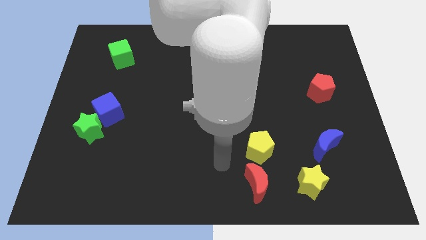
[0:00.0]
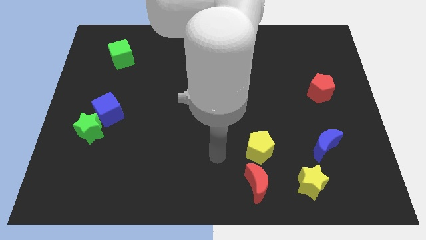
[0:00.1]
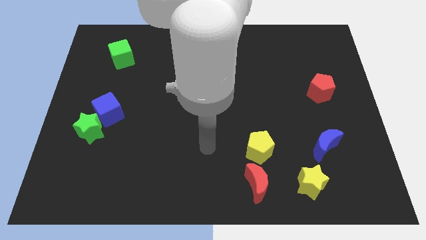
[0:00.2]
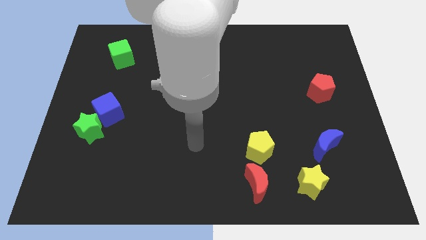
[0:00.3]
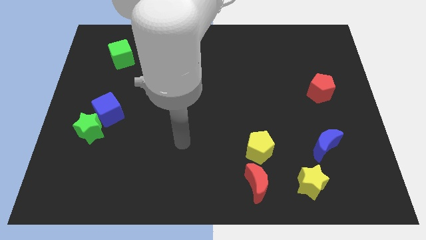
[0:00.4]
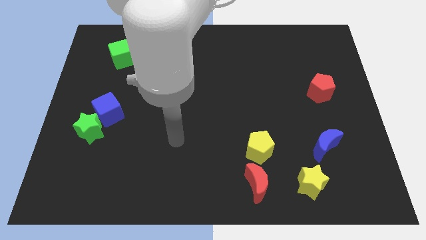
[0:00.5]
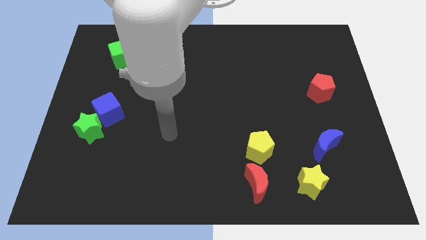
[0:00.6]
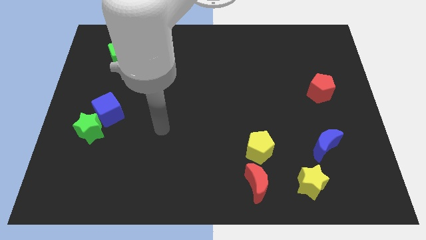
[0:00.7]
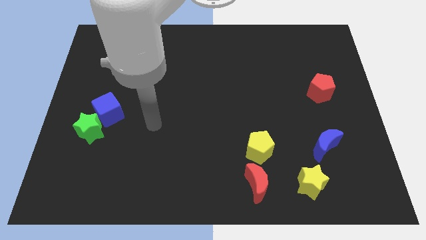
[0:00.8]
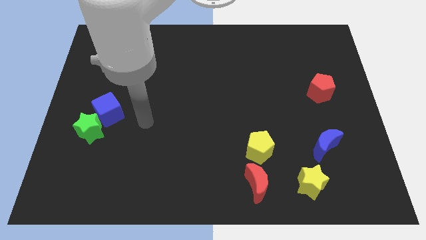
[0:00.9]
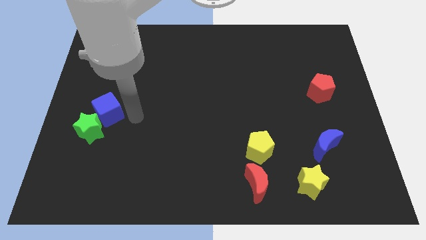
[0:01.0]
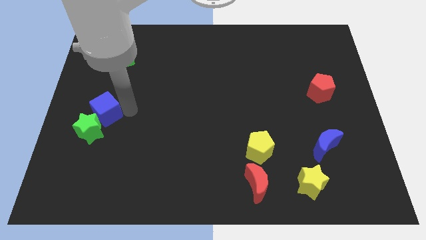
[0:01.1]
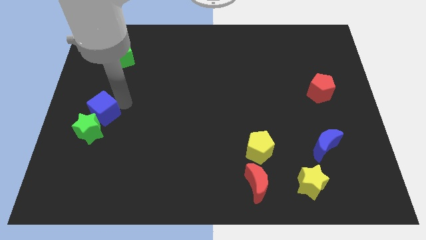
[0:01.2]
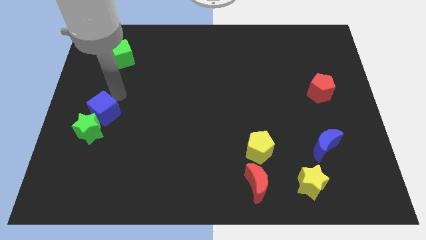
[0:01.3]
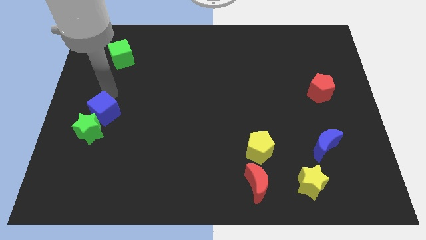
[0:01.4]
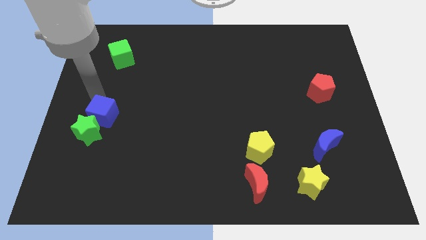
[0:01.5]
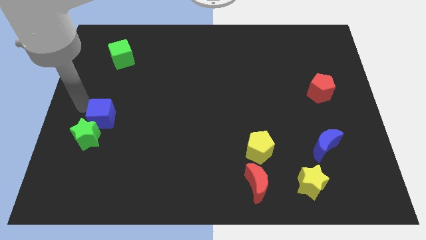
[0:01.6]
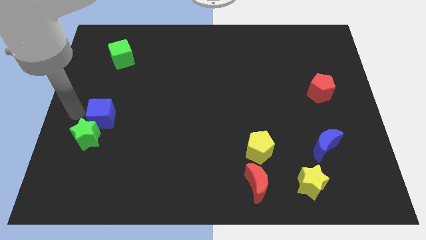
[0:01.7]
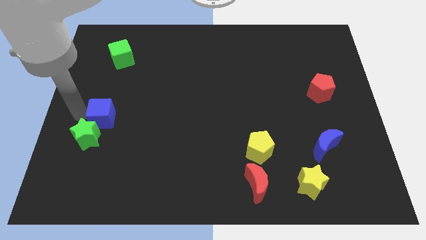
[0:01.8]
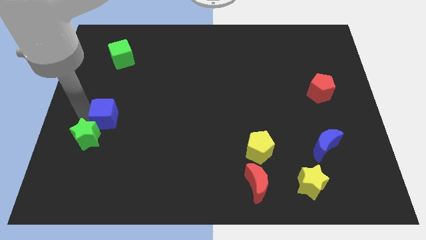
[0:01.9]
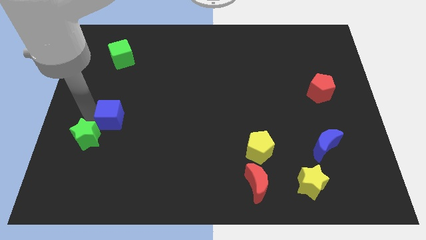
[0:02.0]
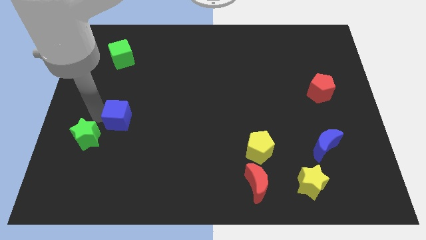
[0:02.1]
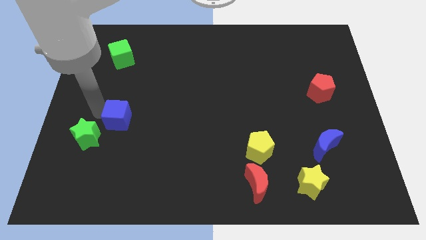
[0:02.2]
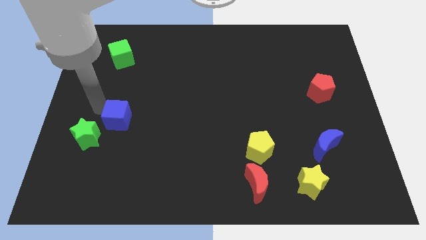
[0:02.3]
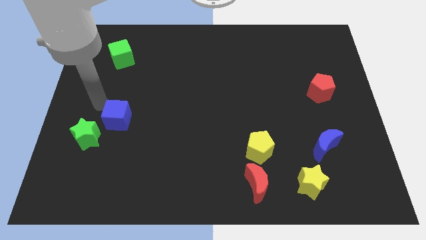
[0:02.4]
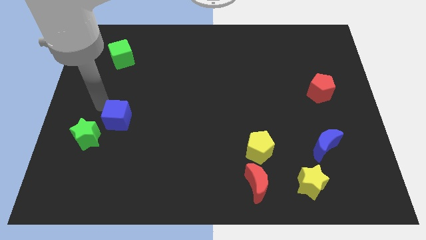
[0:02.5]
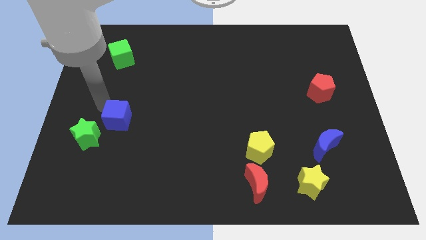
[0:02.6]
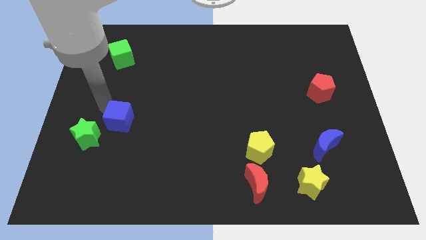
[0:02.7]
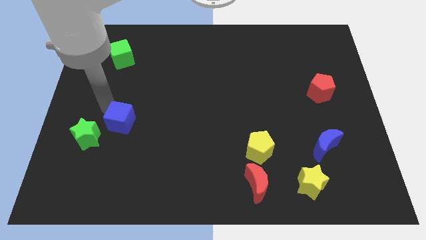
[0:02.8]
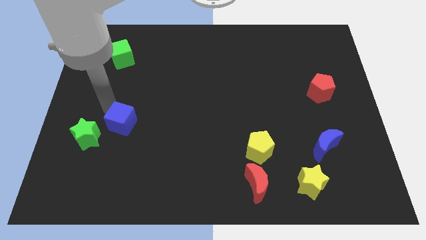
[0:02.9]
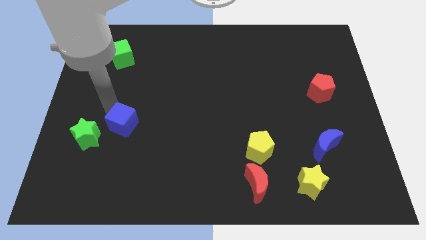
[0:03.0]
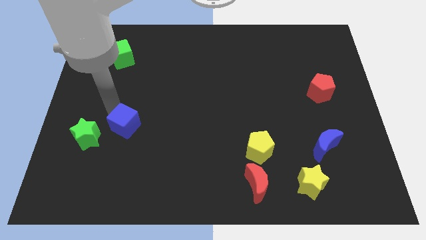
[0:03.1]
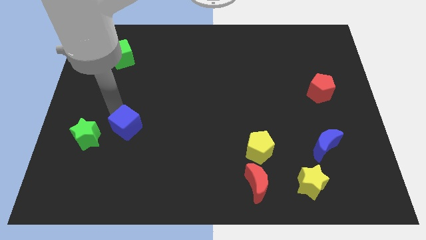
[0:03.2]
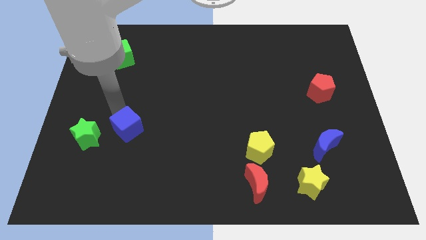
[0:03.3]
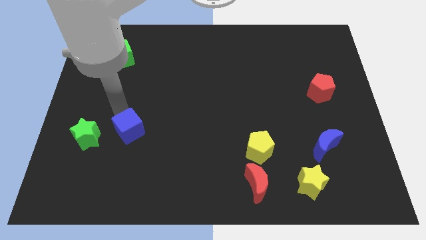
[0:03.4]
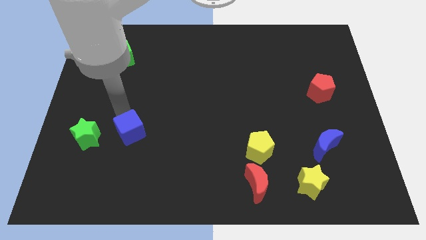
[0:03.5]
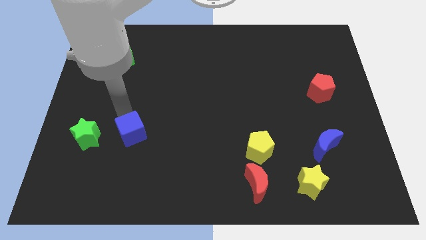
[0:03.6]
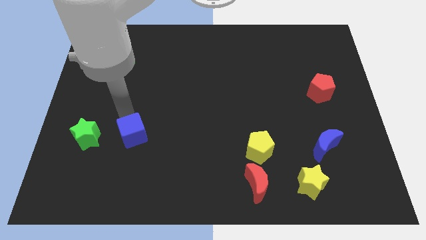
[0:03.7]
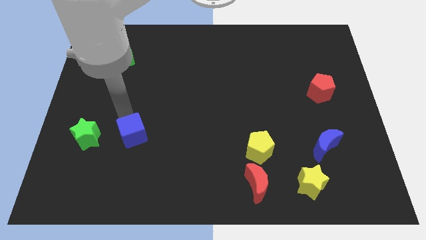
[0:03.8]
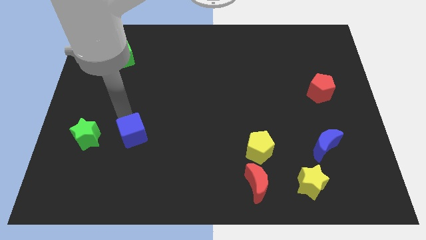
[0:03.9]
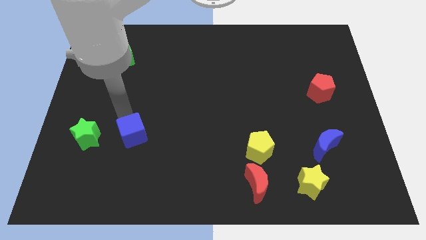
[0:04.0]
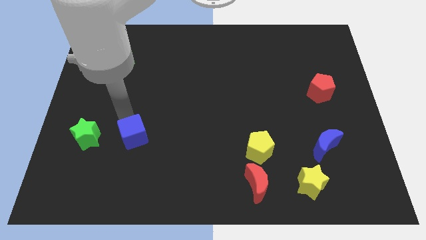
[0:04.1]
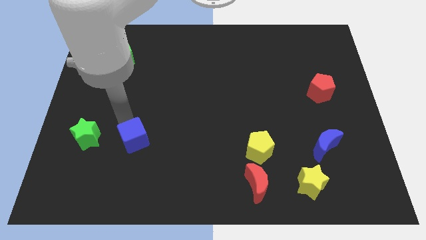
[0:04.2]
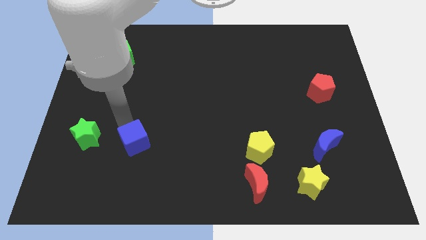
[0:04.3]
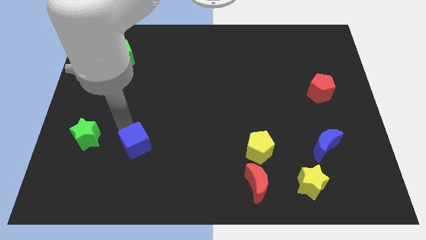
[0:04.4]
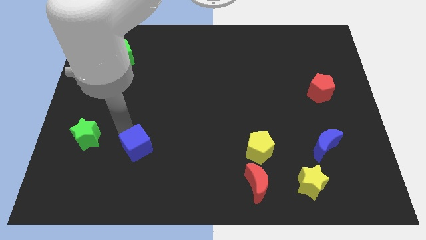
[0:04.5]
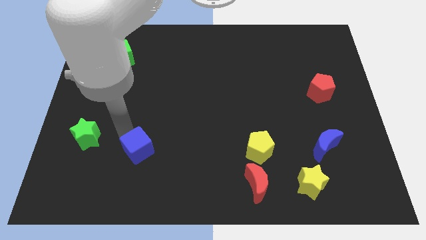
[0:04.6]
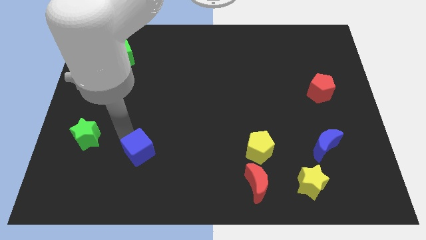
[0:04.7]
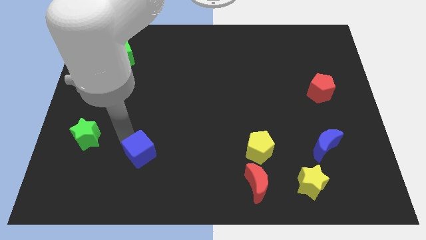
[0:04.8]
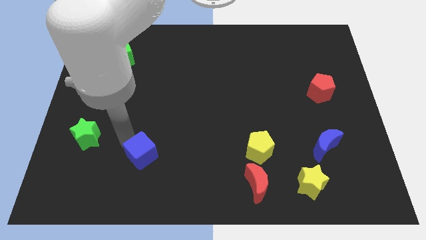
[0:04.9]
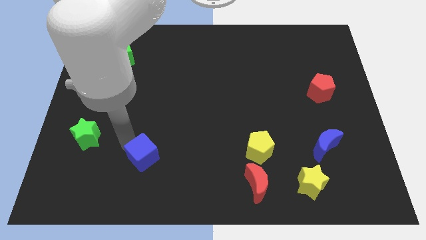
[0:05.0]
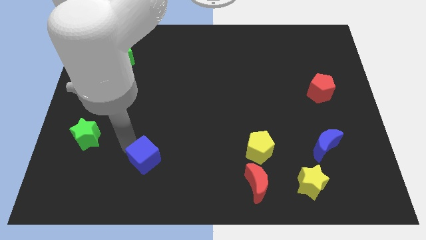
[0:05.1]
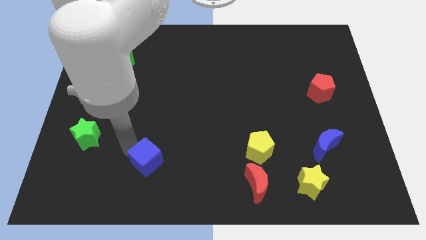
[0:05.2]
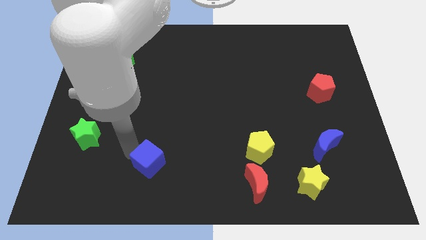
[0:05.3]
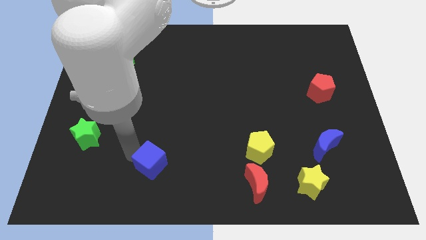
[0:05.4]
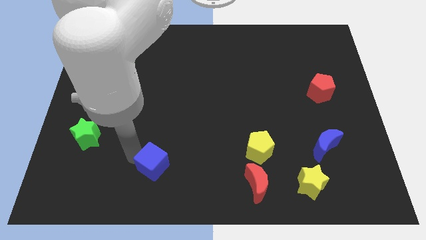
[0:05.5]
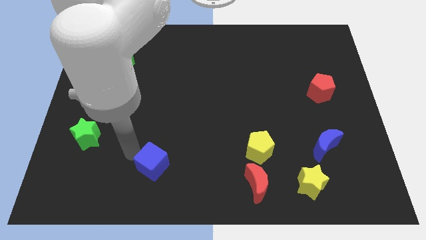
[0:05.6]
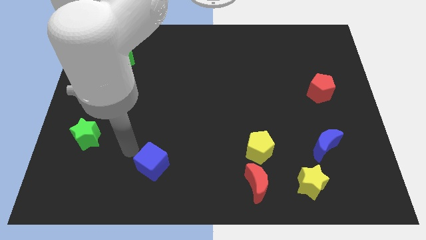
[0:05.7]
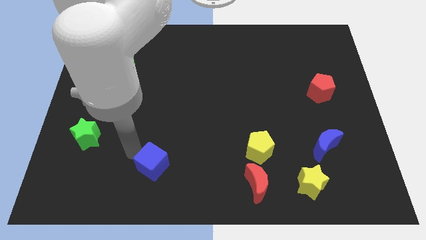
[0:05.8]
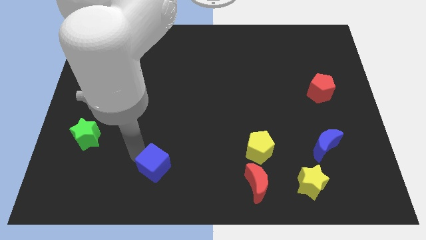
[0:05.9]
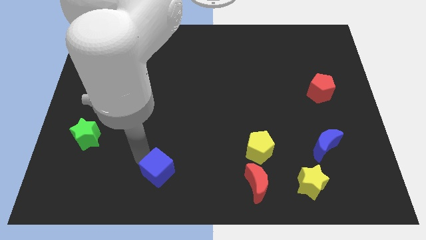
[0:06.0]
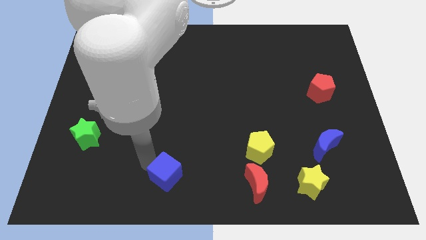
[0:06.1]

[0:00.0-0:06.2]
move the blue cube to the bottom side
